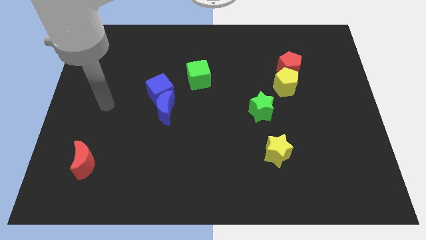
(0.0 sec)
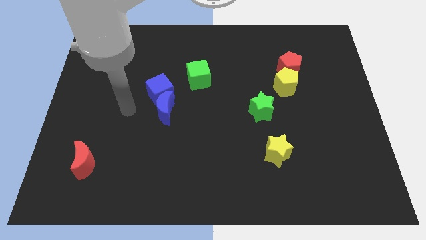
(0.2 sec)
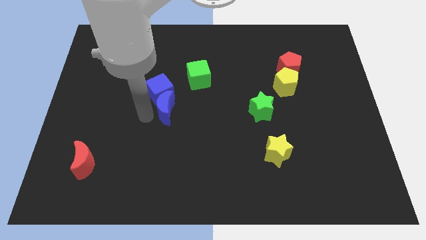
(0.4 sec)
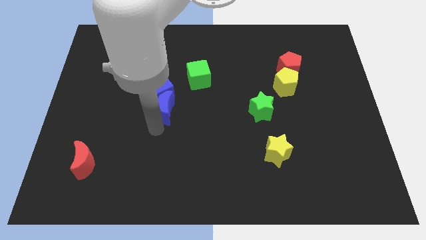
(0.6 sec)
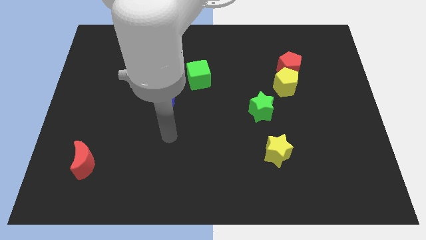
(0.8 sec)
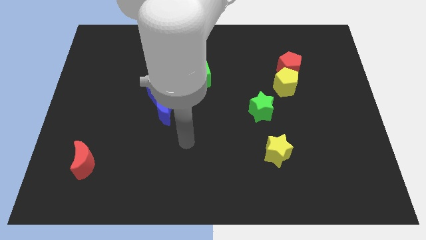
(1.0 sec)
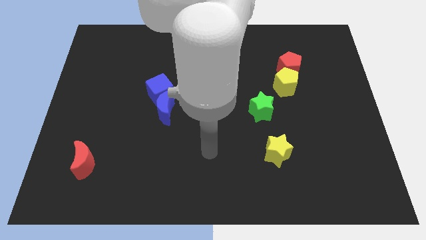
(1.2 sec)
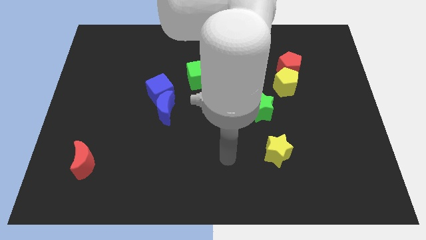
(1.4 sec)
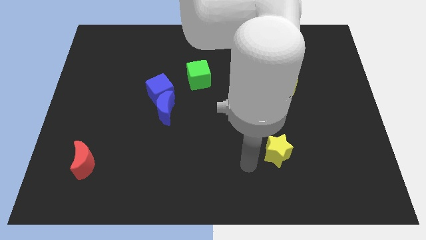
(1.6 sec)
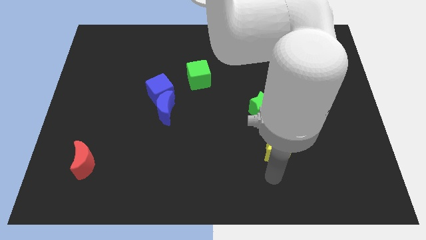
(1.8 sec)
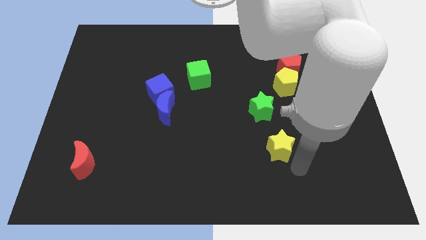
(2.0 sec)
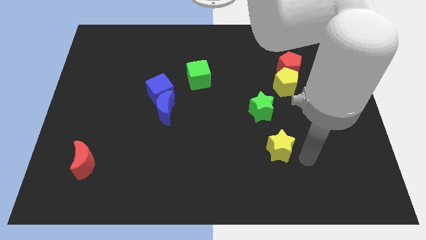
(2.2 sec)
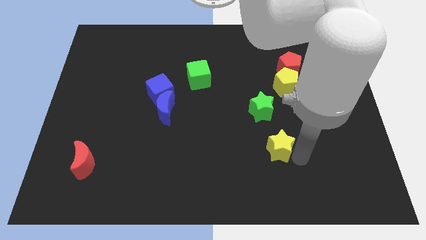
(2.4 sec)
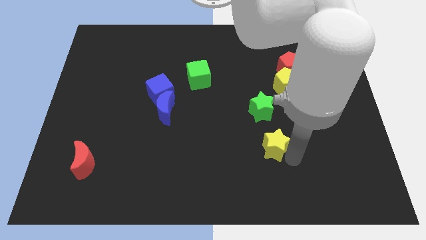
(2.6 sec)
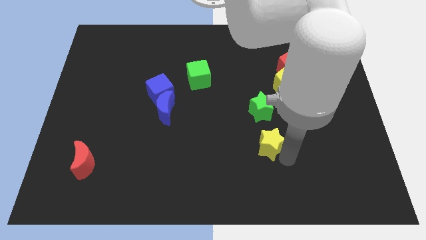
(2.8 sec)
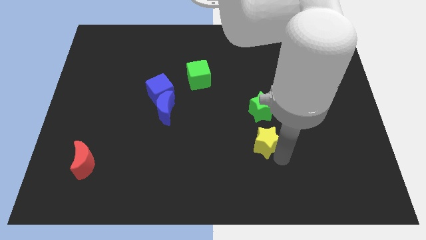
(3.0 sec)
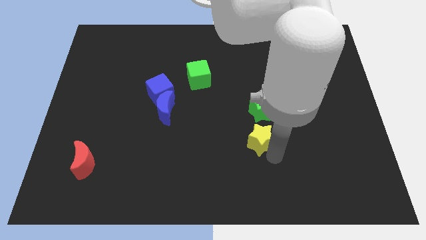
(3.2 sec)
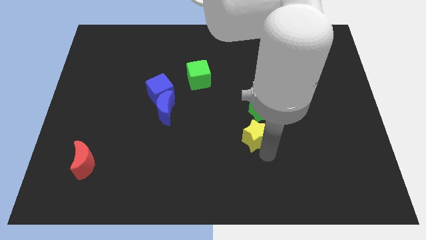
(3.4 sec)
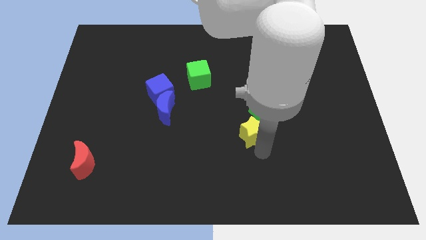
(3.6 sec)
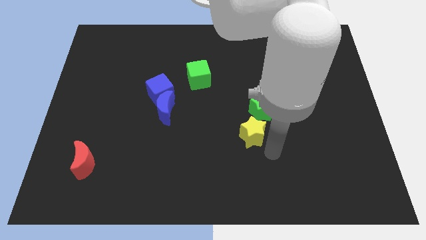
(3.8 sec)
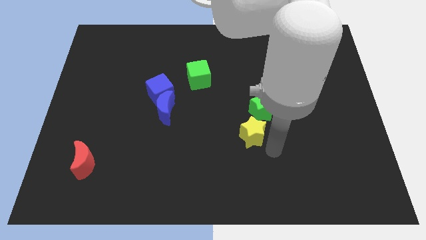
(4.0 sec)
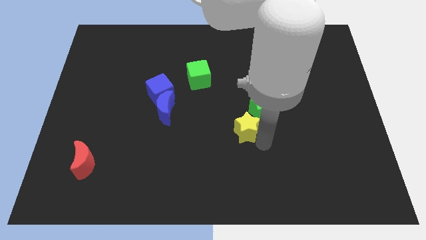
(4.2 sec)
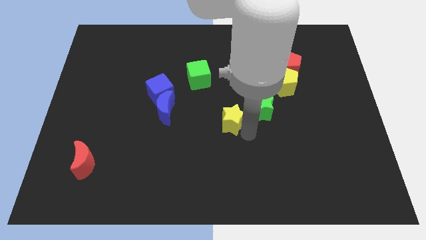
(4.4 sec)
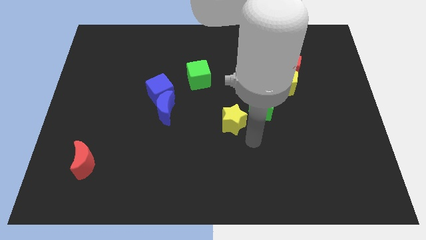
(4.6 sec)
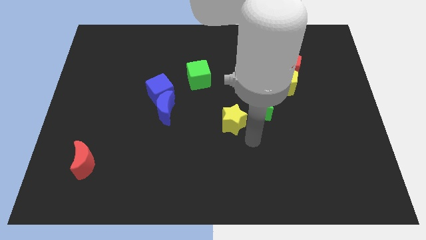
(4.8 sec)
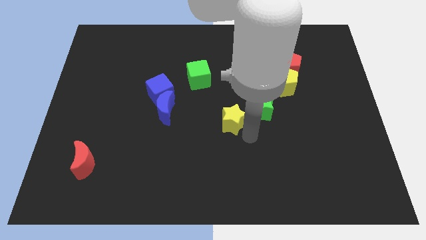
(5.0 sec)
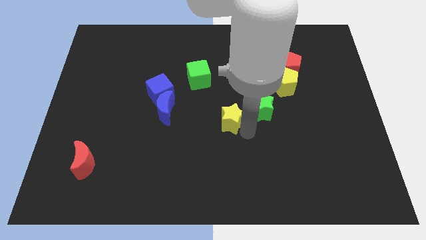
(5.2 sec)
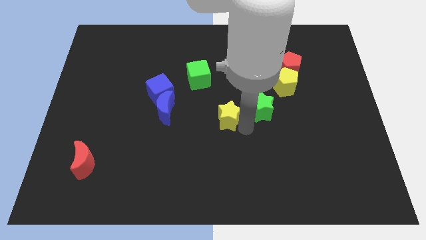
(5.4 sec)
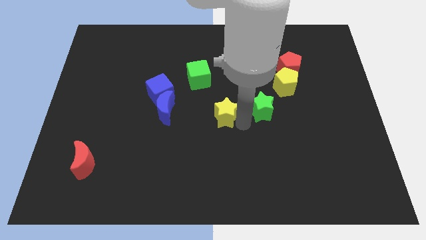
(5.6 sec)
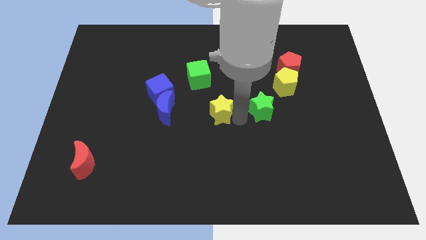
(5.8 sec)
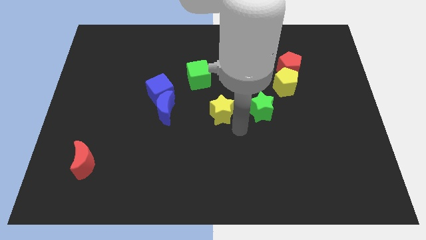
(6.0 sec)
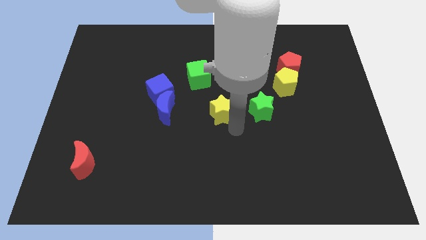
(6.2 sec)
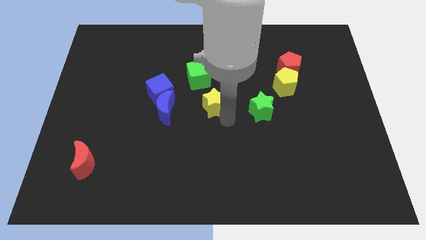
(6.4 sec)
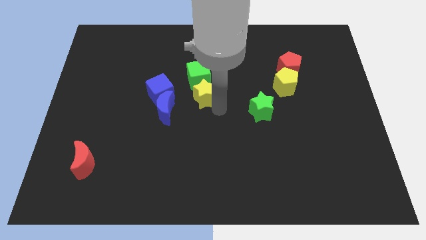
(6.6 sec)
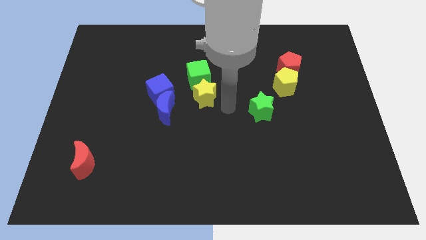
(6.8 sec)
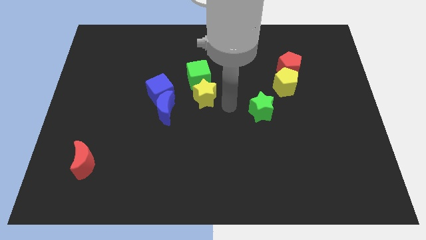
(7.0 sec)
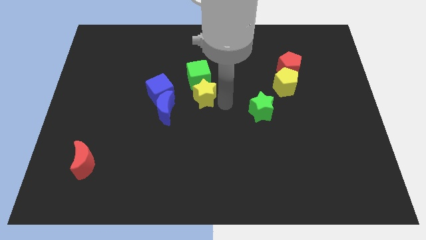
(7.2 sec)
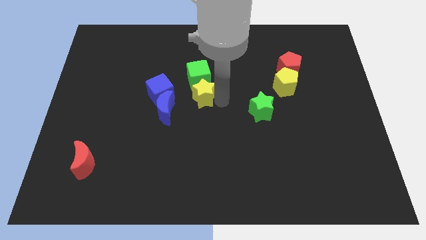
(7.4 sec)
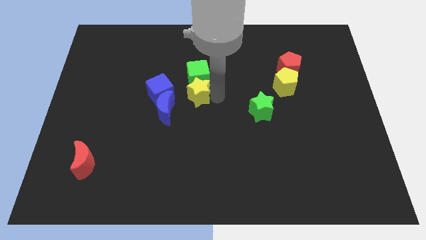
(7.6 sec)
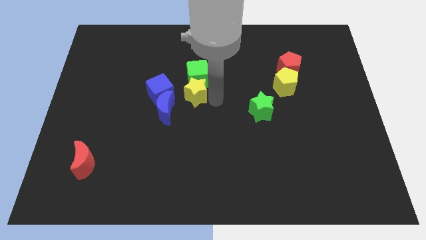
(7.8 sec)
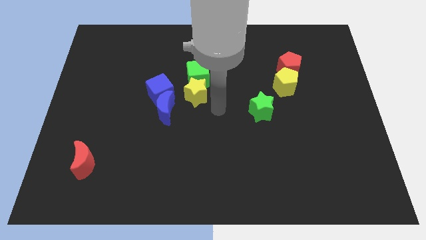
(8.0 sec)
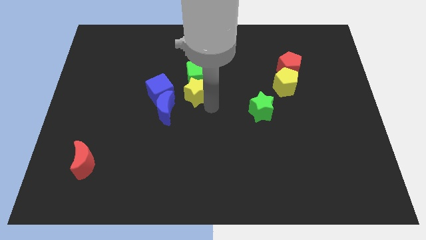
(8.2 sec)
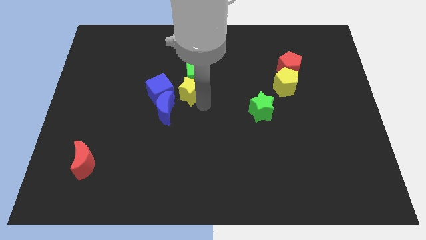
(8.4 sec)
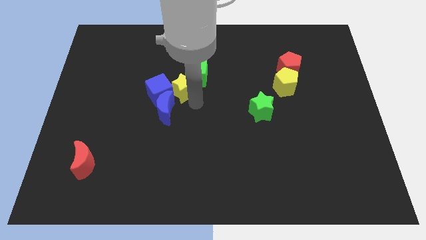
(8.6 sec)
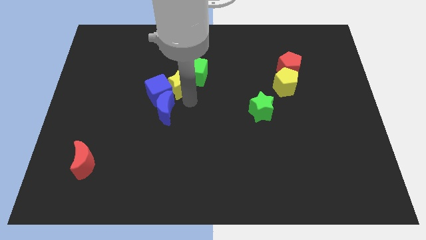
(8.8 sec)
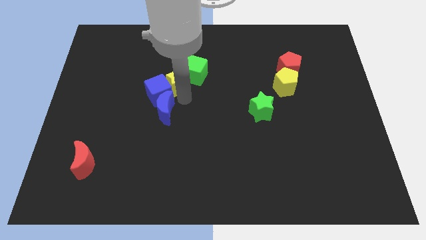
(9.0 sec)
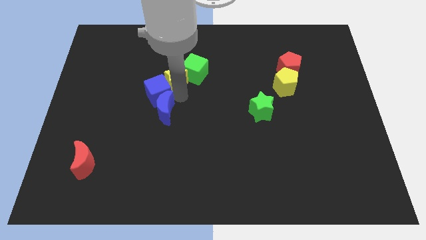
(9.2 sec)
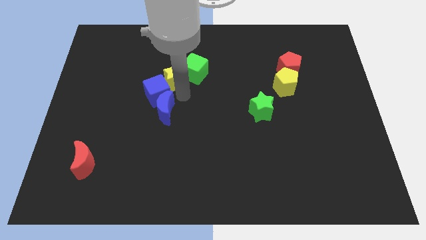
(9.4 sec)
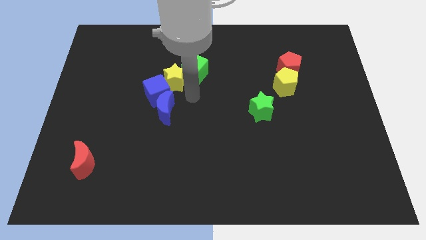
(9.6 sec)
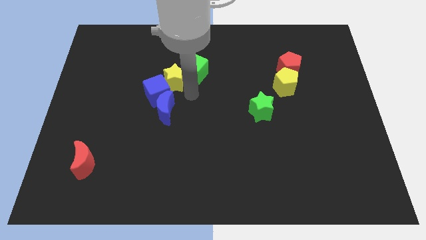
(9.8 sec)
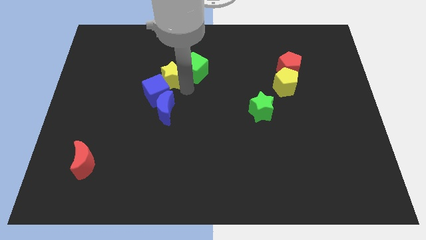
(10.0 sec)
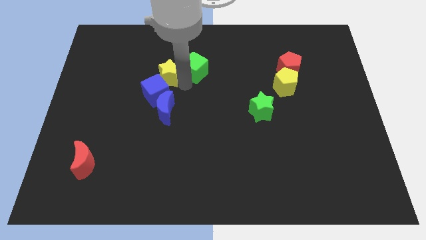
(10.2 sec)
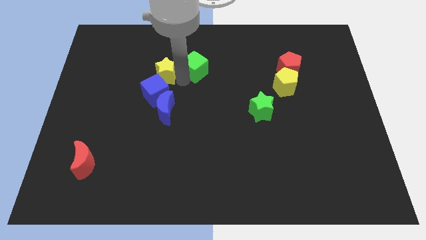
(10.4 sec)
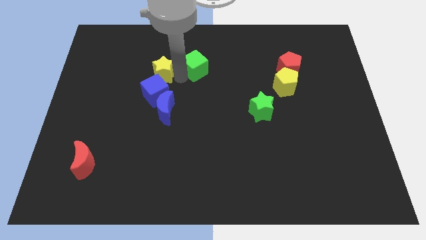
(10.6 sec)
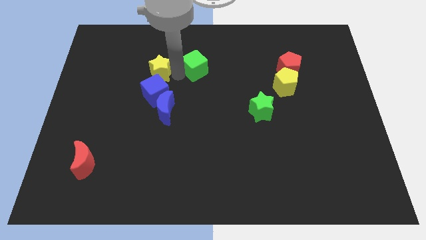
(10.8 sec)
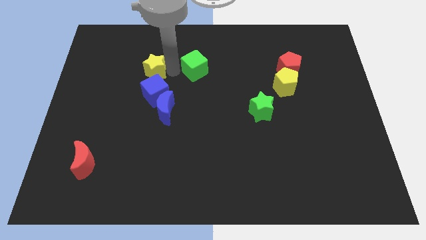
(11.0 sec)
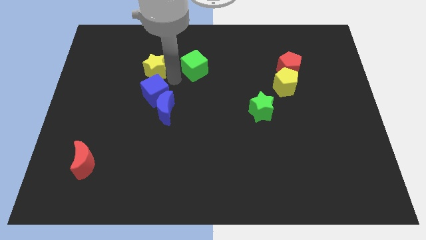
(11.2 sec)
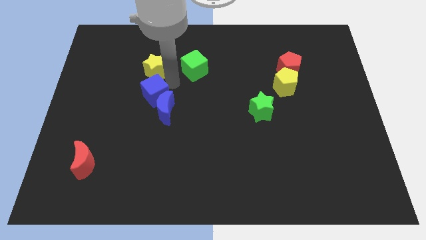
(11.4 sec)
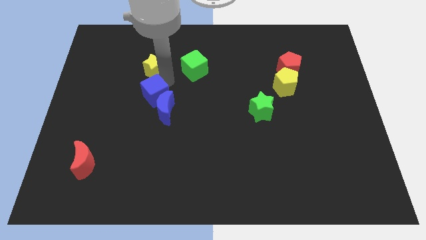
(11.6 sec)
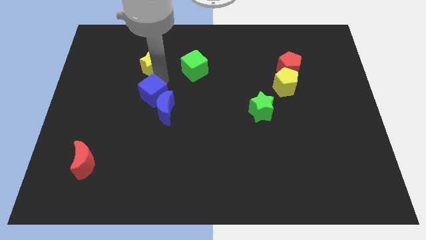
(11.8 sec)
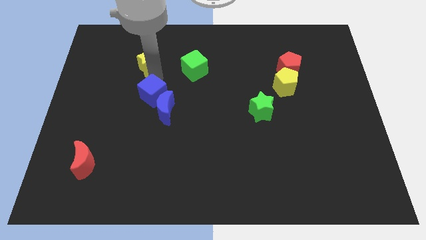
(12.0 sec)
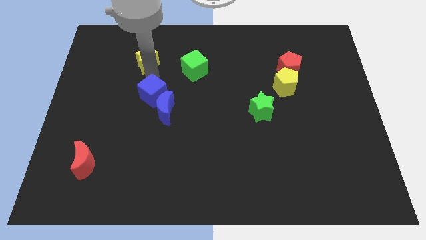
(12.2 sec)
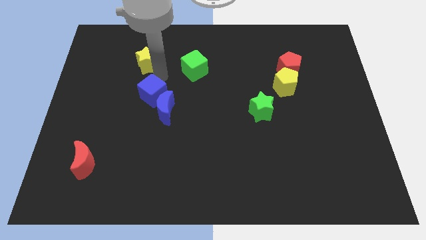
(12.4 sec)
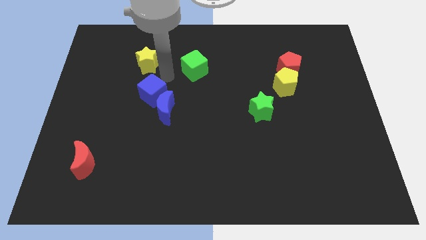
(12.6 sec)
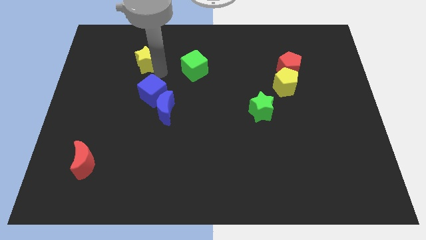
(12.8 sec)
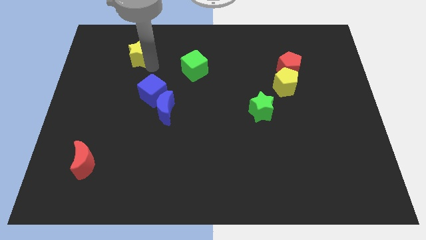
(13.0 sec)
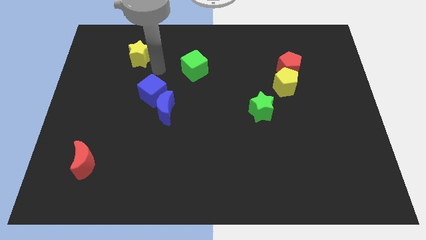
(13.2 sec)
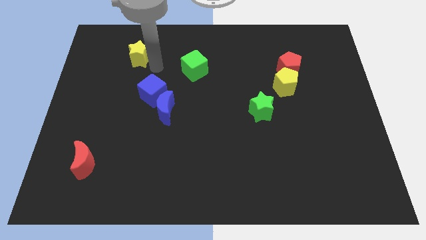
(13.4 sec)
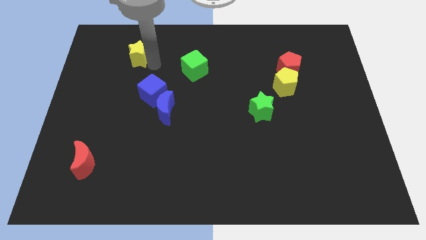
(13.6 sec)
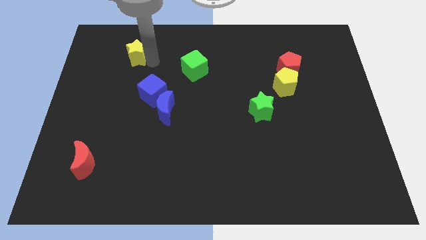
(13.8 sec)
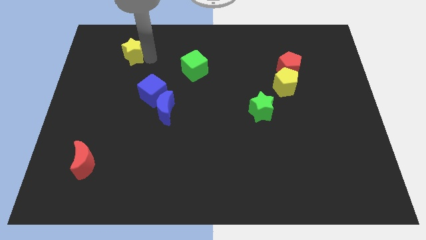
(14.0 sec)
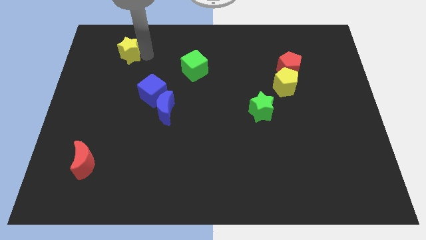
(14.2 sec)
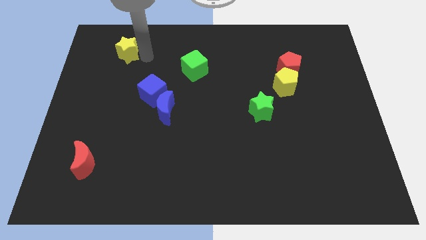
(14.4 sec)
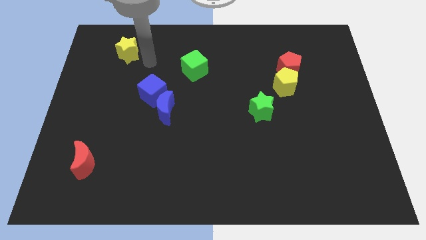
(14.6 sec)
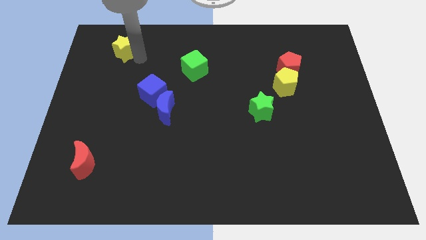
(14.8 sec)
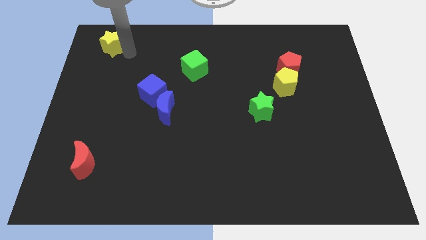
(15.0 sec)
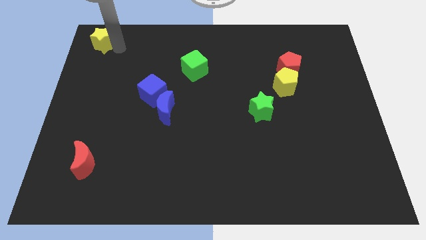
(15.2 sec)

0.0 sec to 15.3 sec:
push the yellow star to the top left corner
